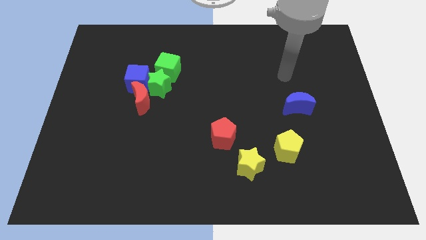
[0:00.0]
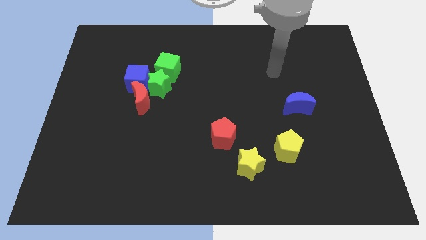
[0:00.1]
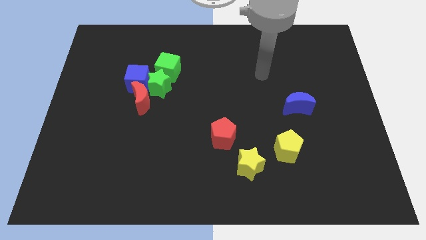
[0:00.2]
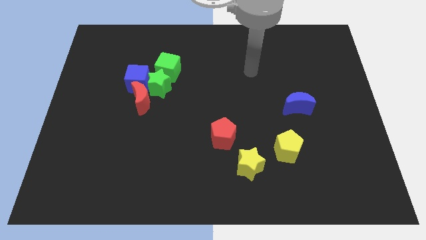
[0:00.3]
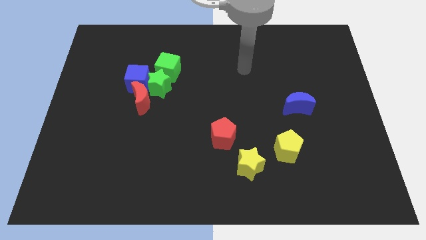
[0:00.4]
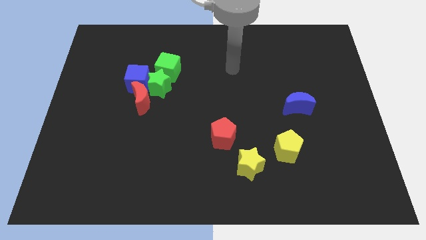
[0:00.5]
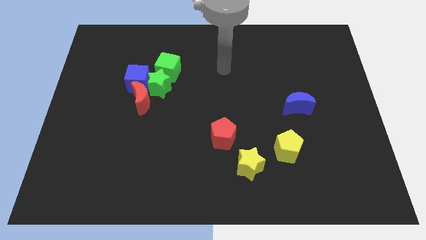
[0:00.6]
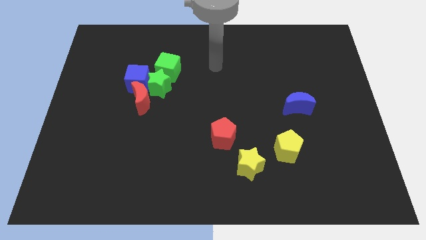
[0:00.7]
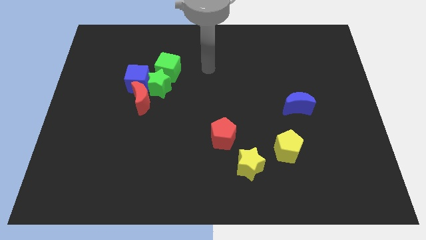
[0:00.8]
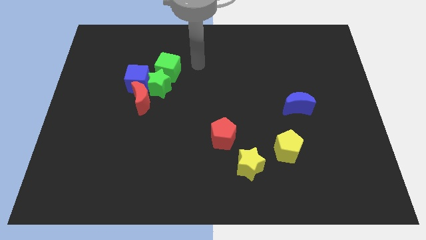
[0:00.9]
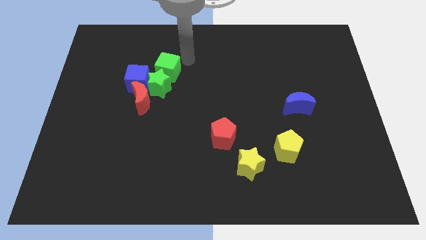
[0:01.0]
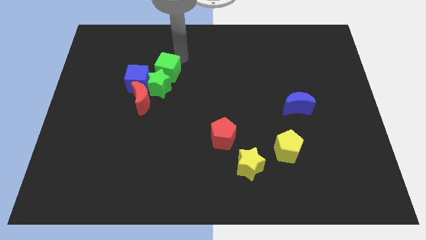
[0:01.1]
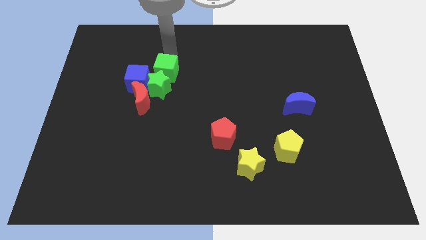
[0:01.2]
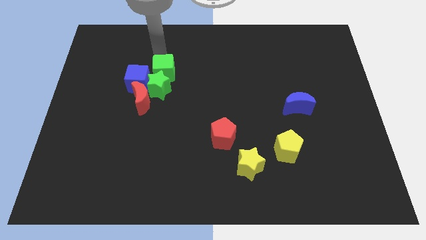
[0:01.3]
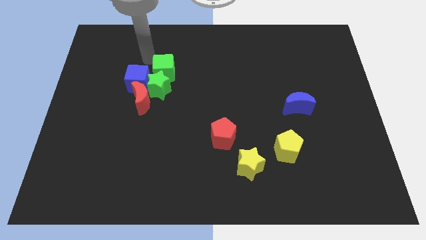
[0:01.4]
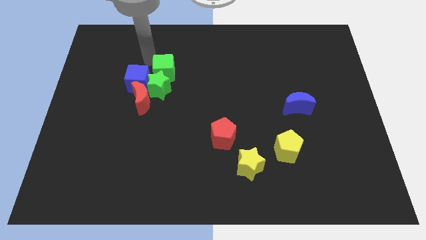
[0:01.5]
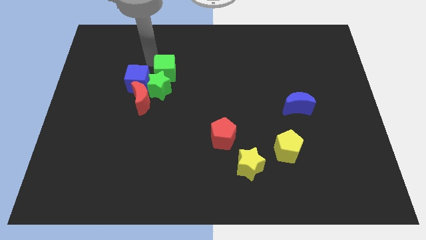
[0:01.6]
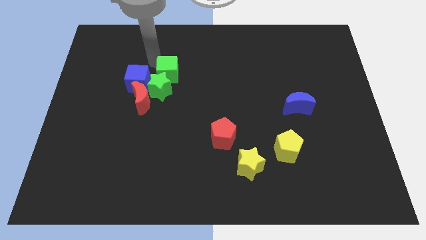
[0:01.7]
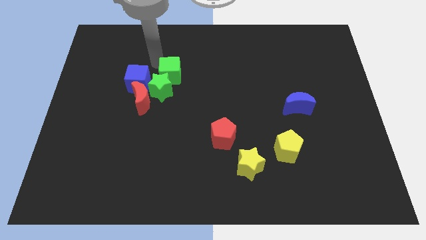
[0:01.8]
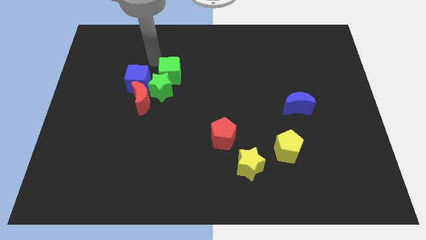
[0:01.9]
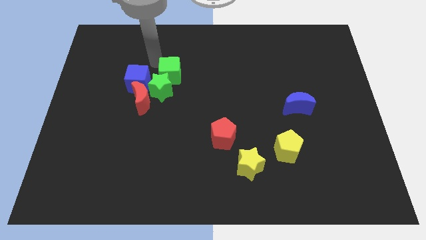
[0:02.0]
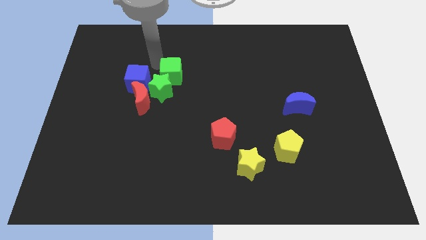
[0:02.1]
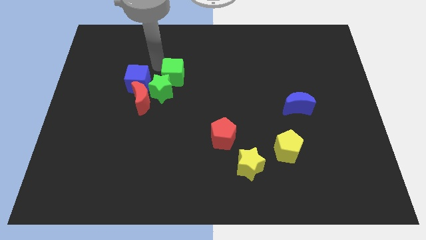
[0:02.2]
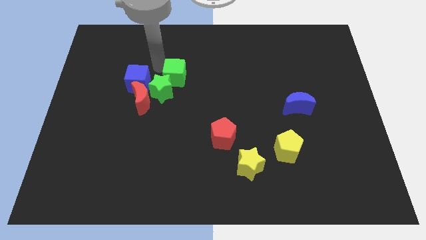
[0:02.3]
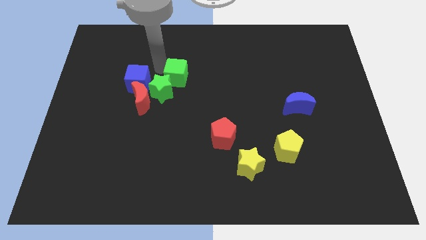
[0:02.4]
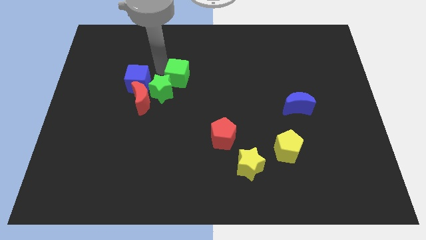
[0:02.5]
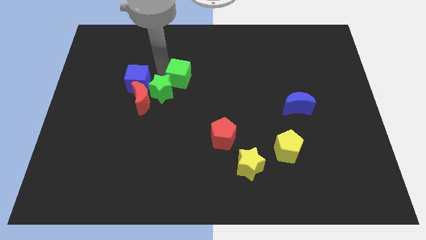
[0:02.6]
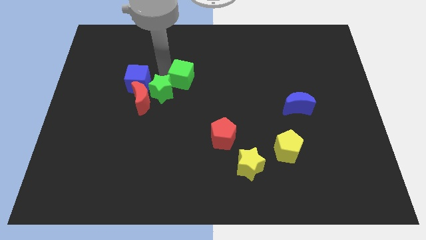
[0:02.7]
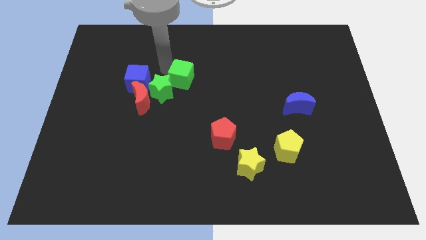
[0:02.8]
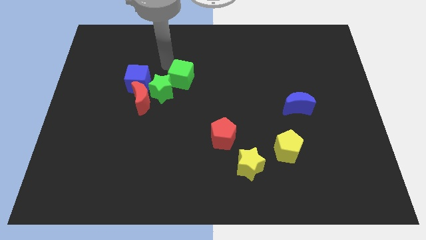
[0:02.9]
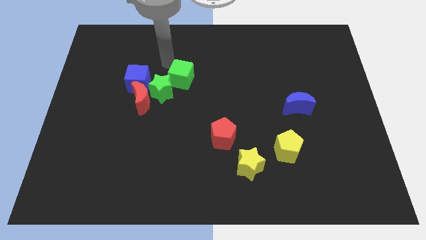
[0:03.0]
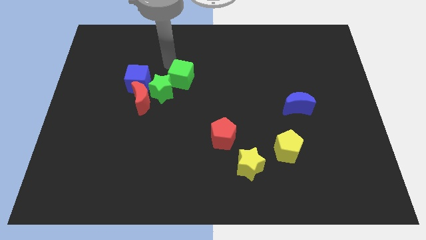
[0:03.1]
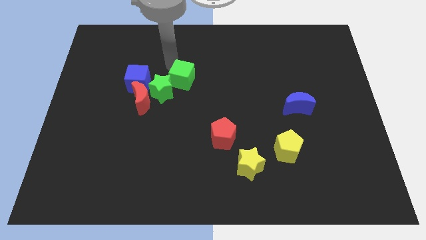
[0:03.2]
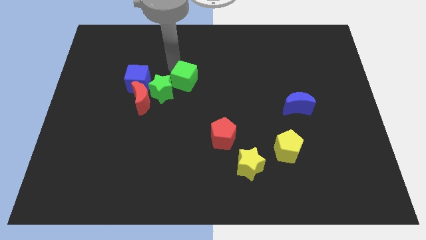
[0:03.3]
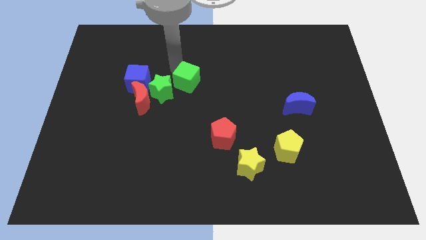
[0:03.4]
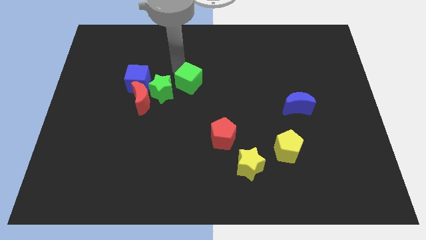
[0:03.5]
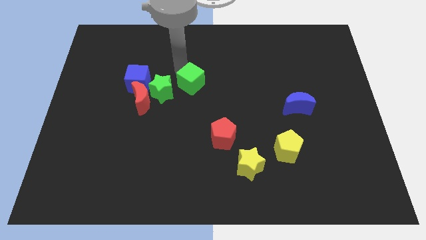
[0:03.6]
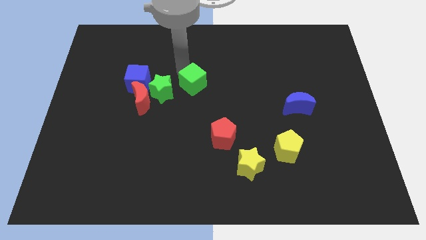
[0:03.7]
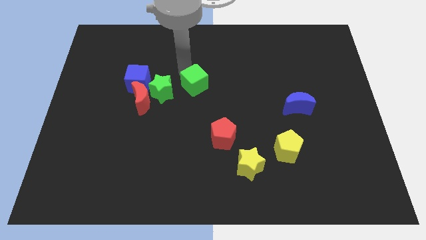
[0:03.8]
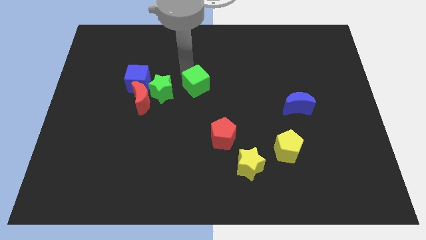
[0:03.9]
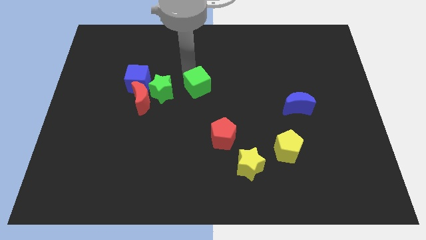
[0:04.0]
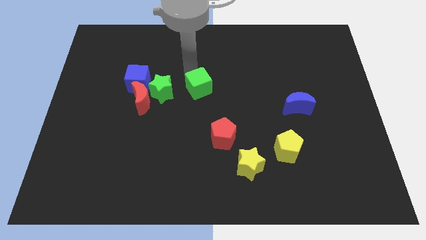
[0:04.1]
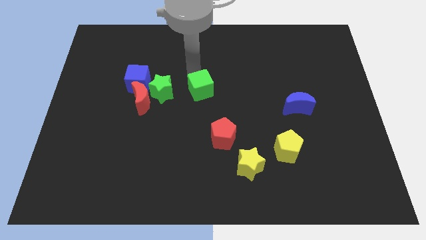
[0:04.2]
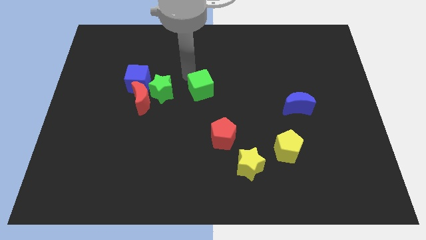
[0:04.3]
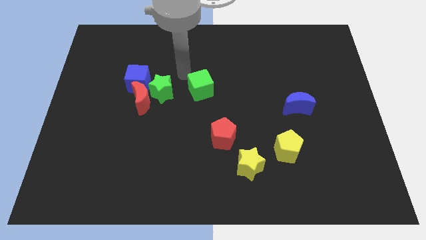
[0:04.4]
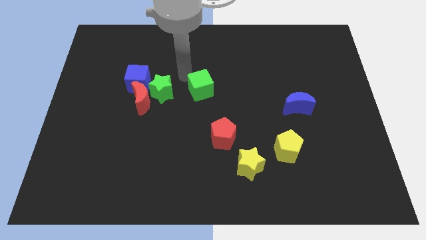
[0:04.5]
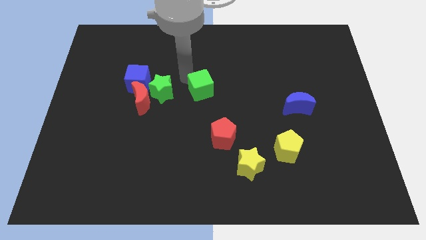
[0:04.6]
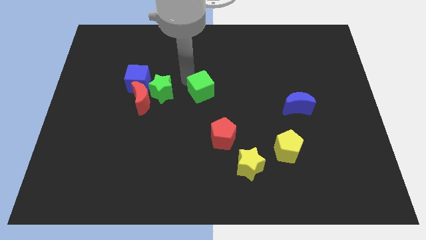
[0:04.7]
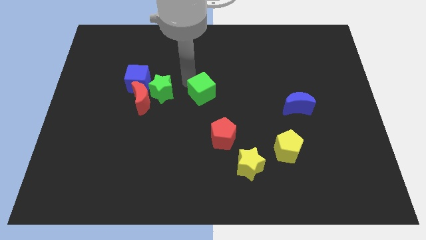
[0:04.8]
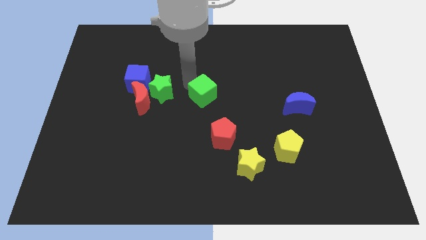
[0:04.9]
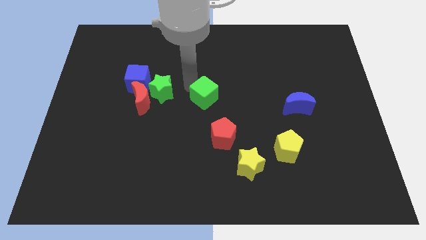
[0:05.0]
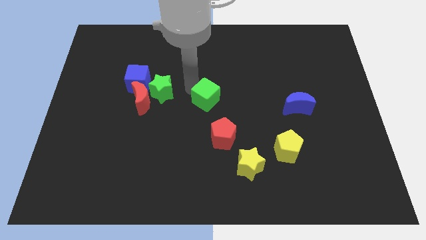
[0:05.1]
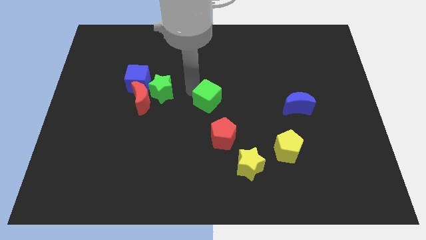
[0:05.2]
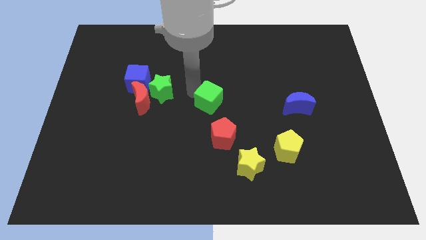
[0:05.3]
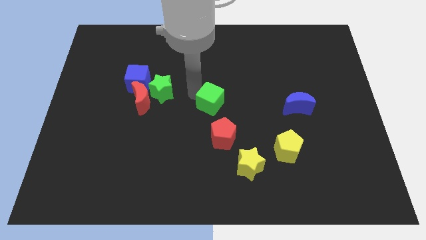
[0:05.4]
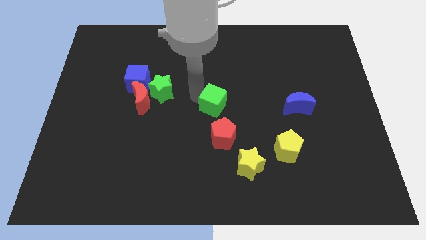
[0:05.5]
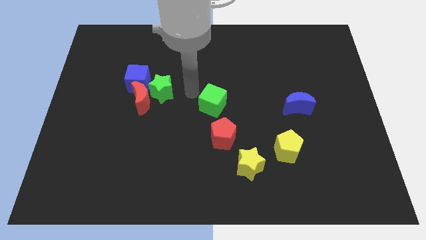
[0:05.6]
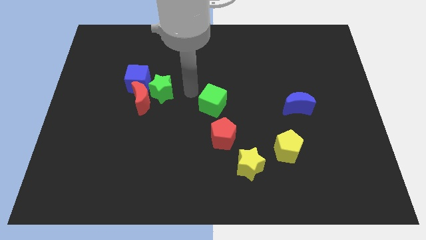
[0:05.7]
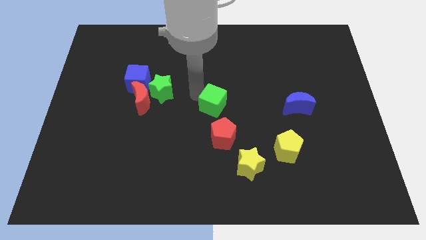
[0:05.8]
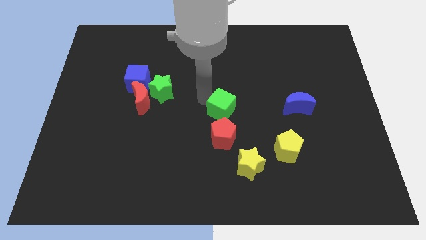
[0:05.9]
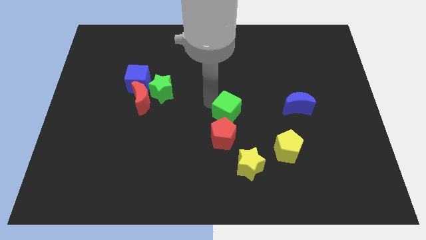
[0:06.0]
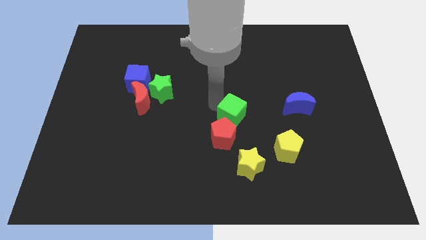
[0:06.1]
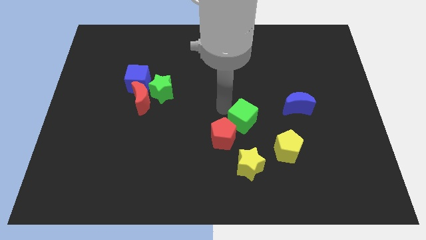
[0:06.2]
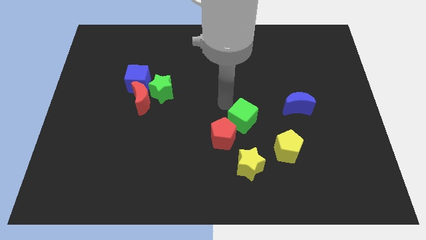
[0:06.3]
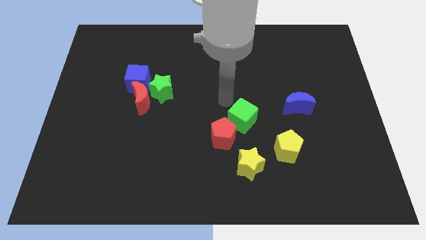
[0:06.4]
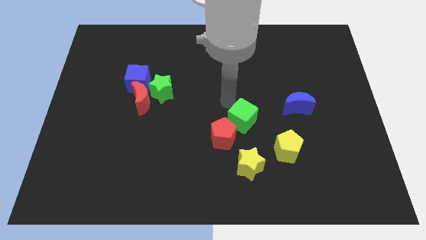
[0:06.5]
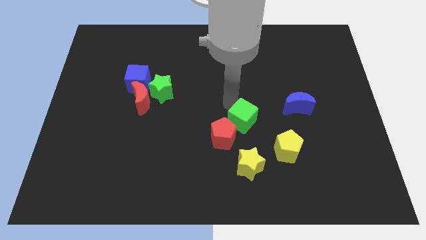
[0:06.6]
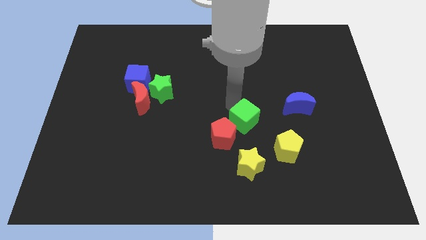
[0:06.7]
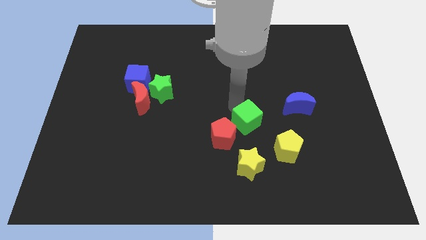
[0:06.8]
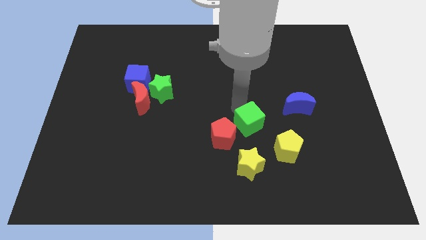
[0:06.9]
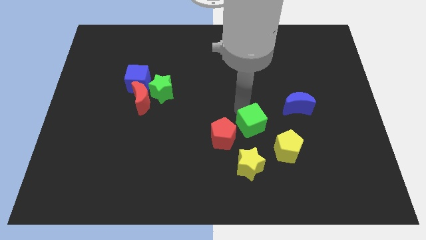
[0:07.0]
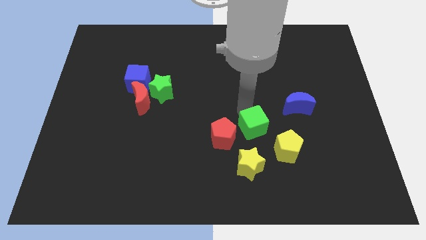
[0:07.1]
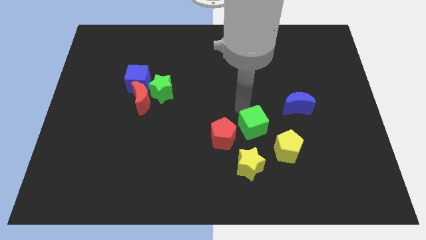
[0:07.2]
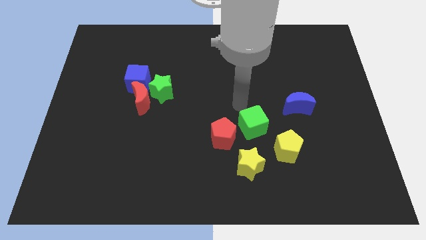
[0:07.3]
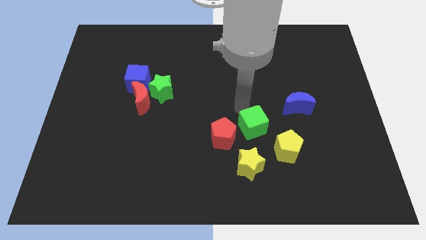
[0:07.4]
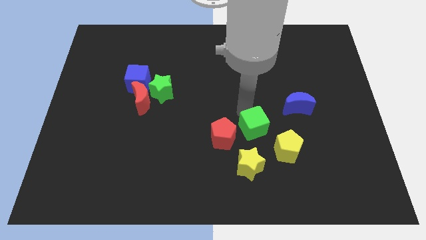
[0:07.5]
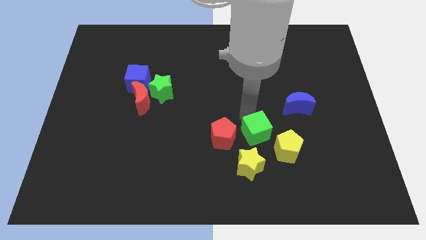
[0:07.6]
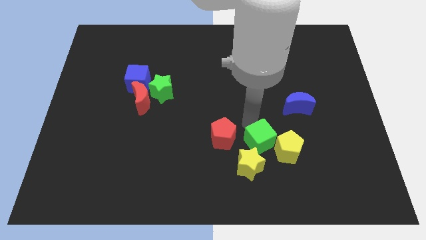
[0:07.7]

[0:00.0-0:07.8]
move the green cube to the yellow pentagon
